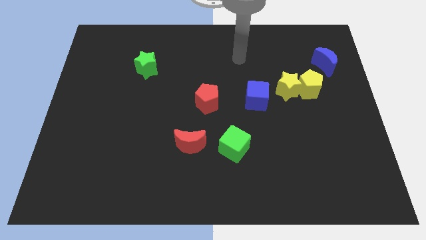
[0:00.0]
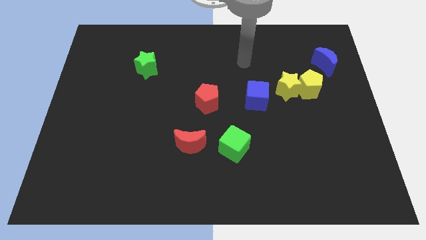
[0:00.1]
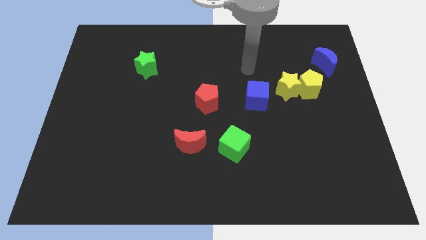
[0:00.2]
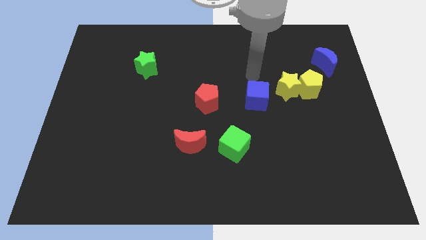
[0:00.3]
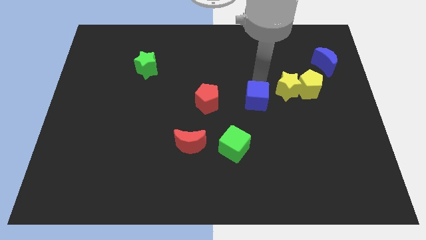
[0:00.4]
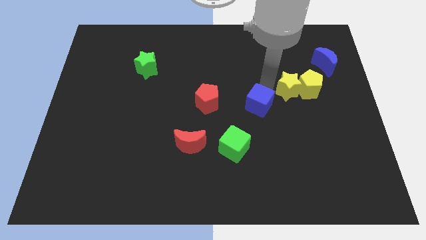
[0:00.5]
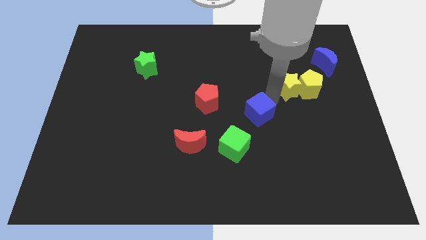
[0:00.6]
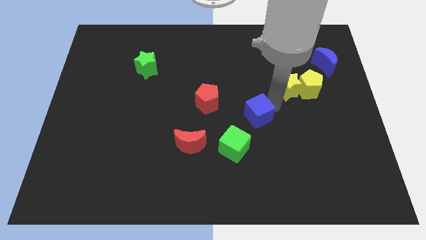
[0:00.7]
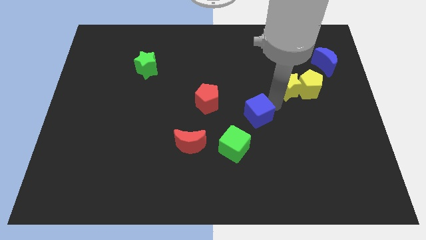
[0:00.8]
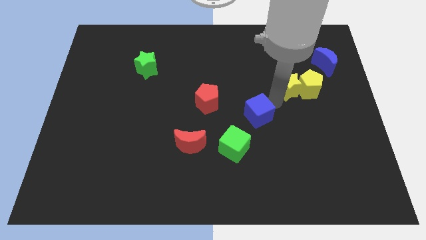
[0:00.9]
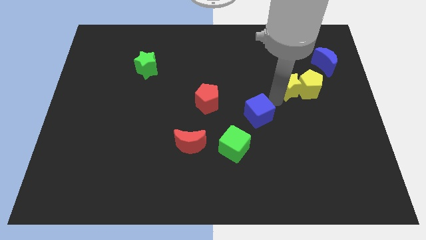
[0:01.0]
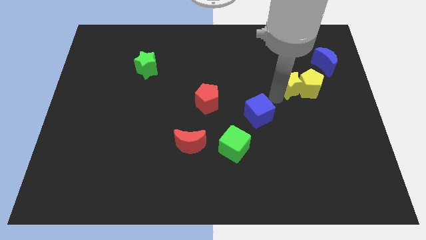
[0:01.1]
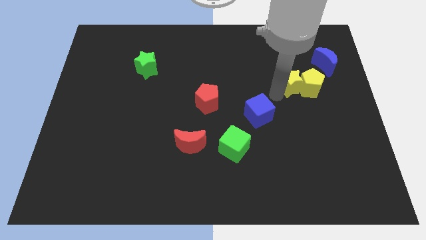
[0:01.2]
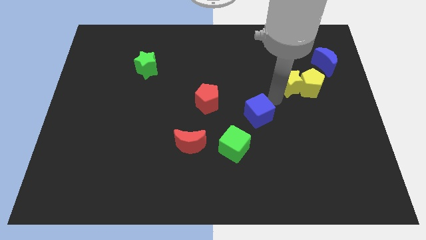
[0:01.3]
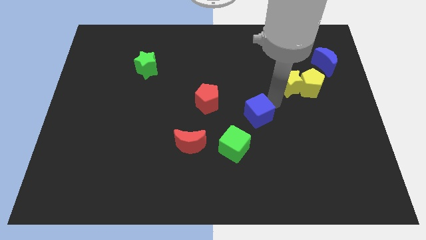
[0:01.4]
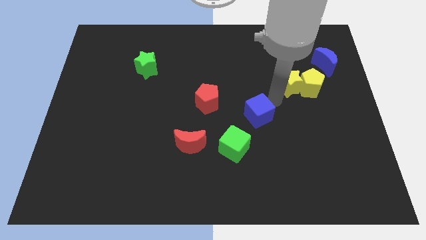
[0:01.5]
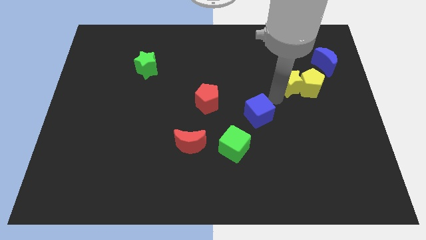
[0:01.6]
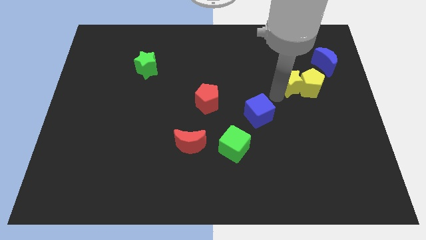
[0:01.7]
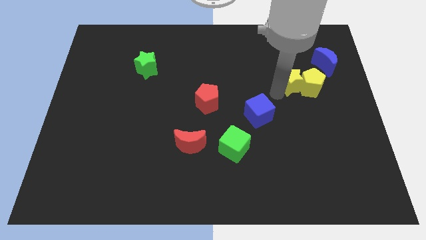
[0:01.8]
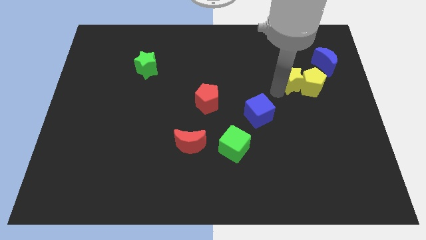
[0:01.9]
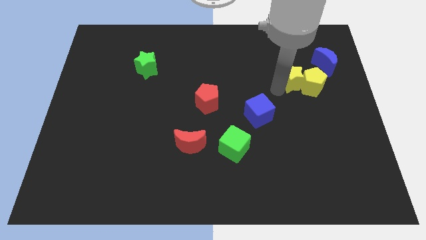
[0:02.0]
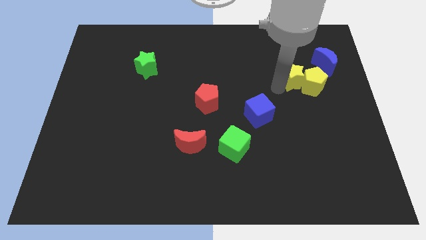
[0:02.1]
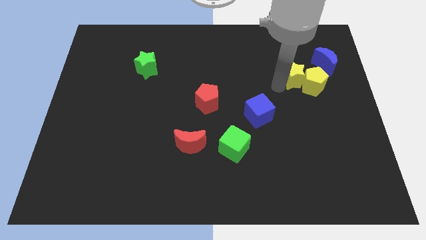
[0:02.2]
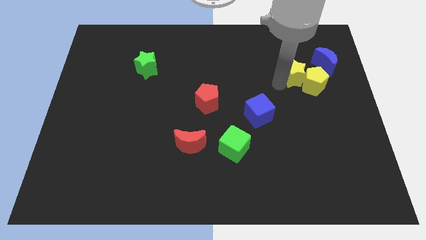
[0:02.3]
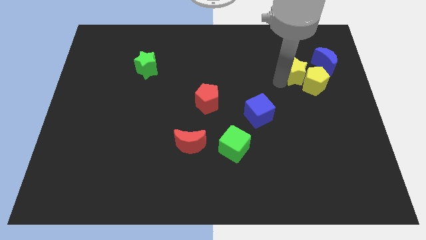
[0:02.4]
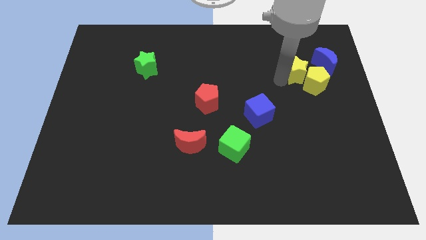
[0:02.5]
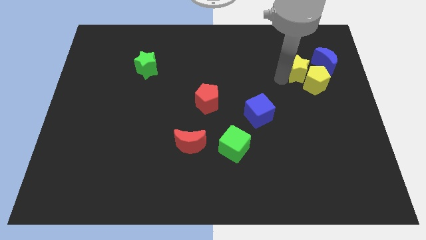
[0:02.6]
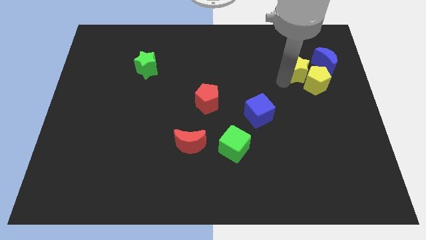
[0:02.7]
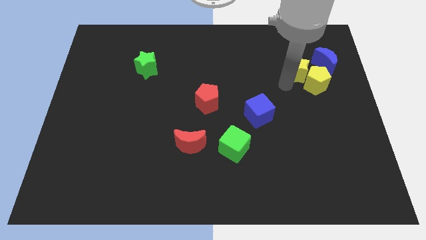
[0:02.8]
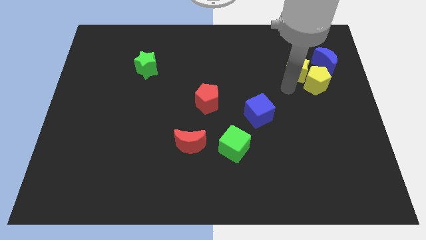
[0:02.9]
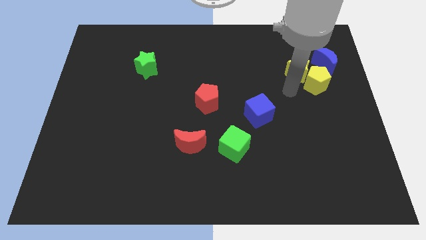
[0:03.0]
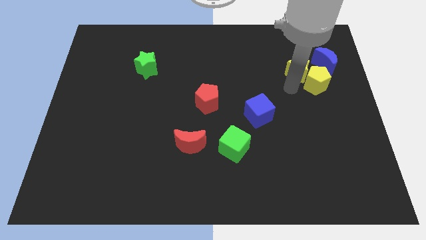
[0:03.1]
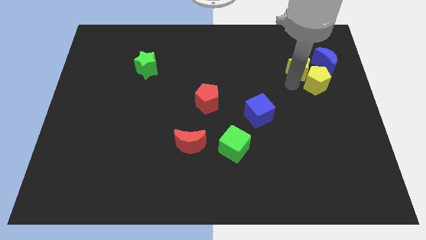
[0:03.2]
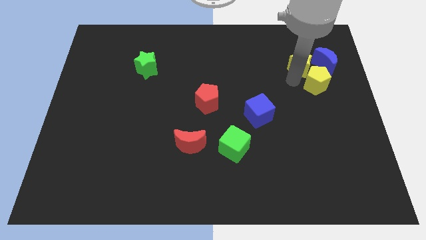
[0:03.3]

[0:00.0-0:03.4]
move the yellow star away from the yellow pentagon and blue cube

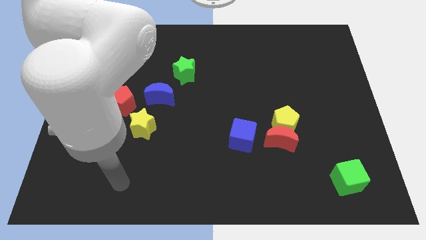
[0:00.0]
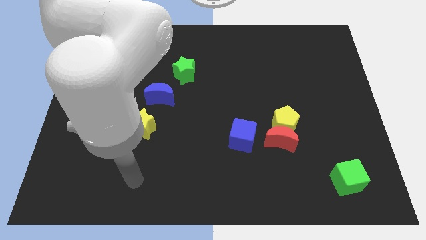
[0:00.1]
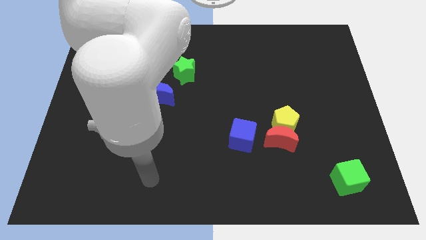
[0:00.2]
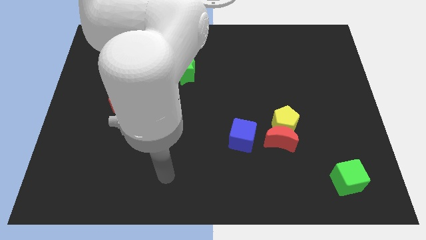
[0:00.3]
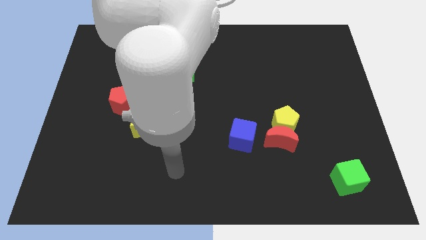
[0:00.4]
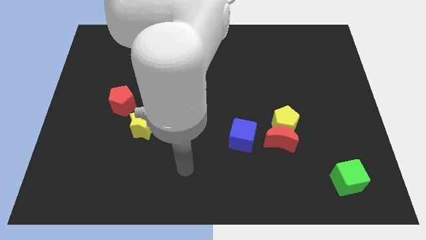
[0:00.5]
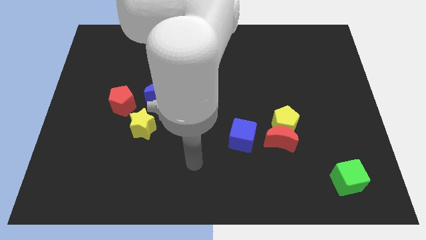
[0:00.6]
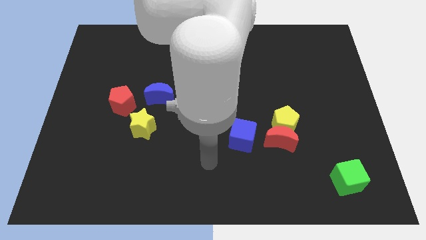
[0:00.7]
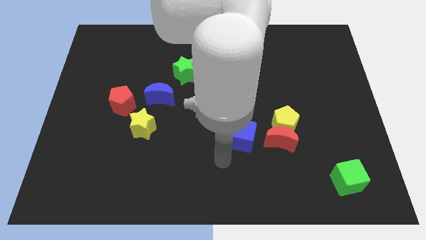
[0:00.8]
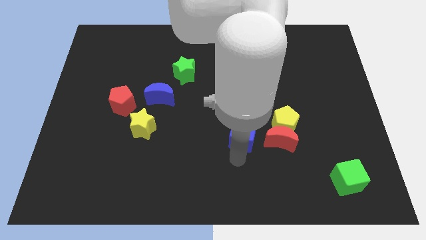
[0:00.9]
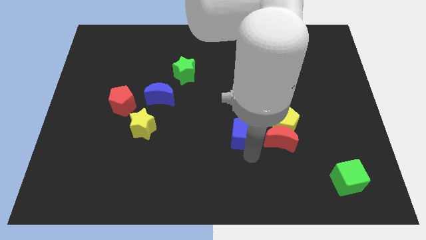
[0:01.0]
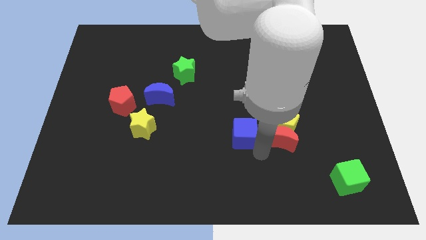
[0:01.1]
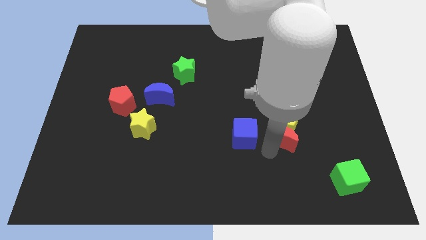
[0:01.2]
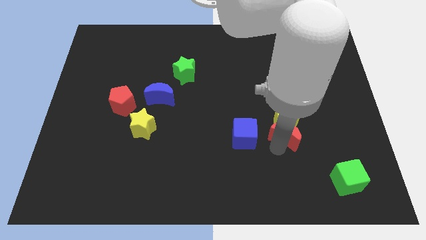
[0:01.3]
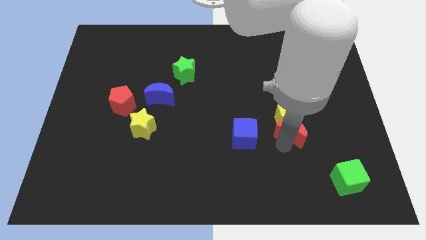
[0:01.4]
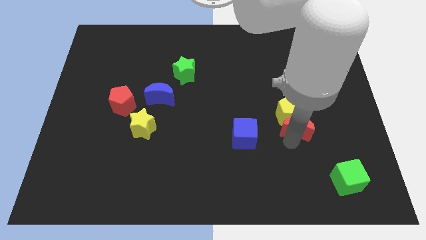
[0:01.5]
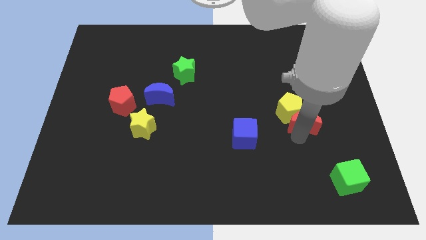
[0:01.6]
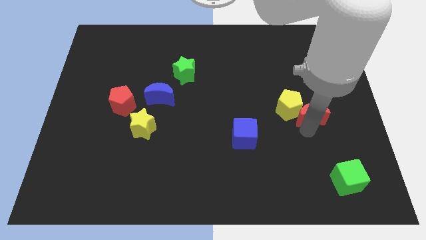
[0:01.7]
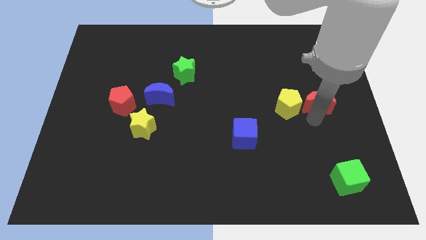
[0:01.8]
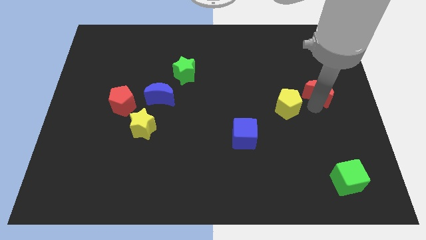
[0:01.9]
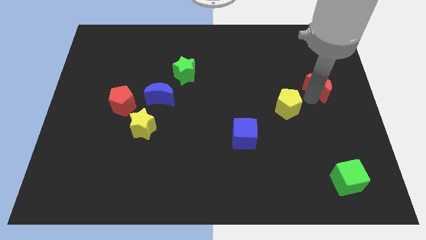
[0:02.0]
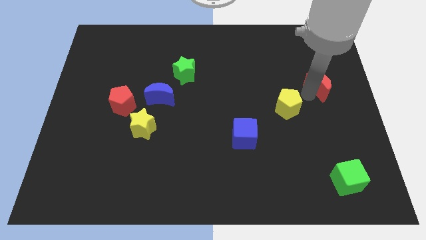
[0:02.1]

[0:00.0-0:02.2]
separate the yellow pentagon from the red moon

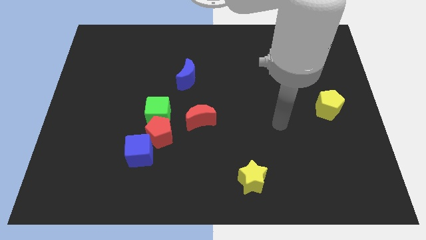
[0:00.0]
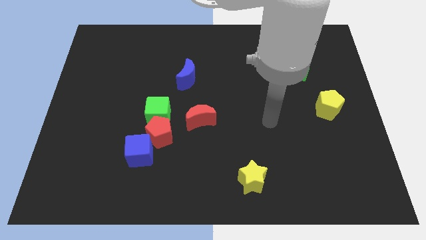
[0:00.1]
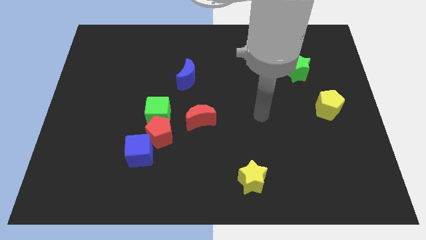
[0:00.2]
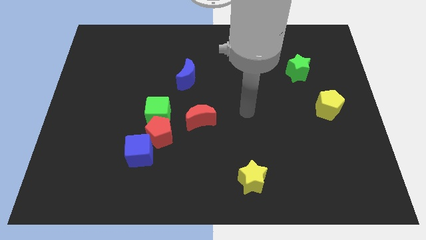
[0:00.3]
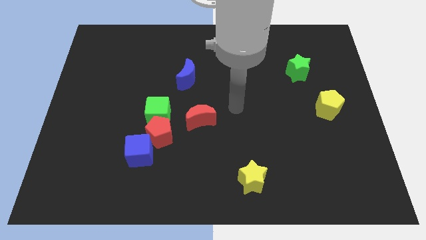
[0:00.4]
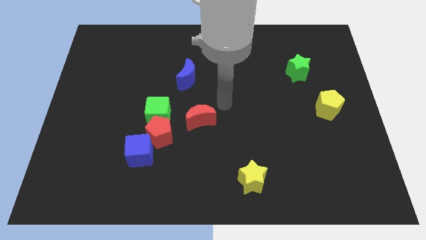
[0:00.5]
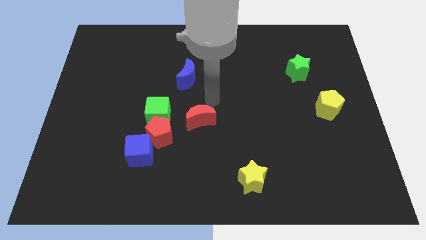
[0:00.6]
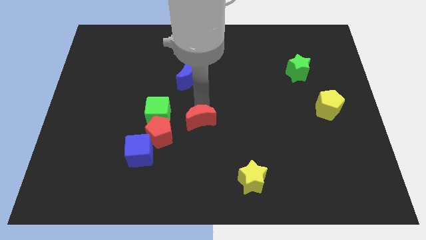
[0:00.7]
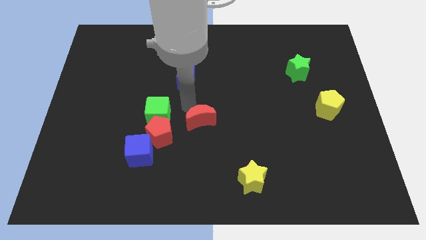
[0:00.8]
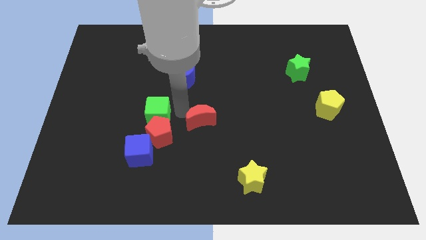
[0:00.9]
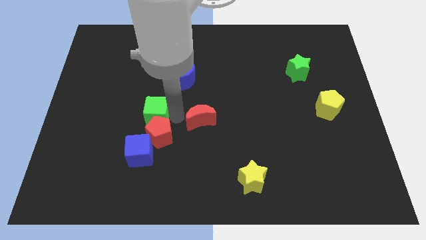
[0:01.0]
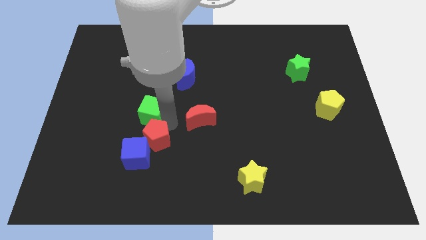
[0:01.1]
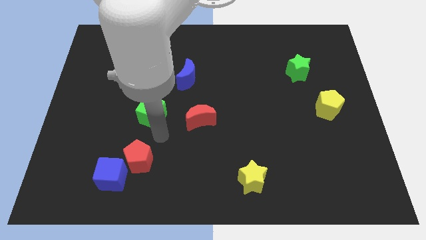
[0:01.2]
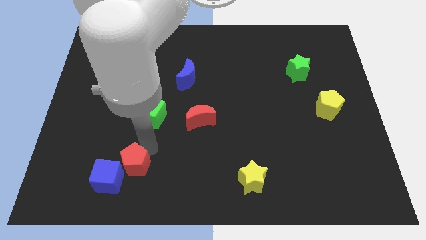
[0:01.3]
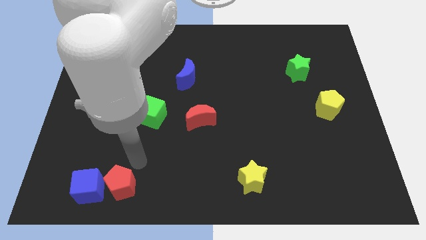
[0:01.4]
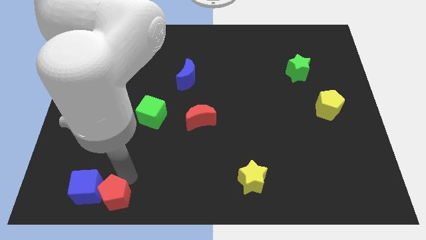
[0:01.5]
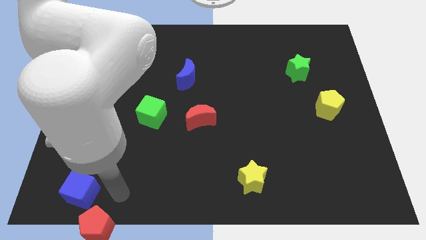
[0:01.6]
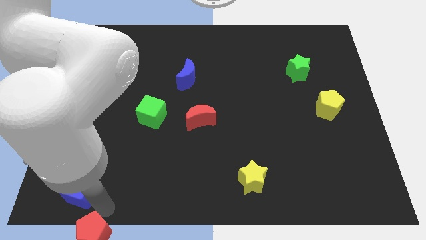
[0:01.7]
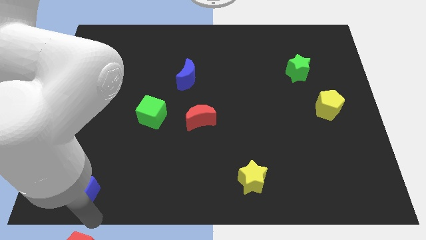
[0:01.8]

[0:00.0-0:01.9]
pull the blue cube apart from the red pentagon

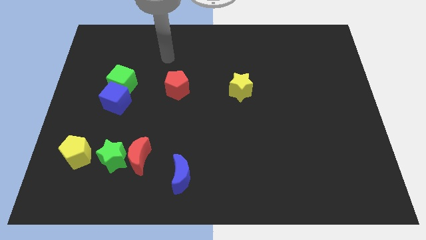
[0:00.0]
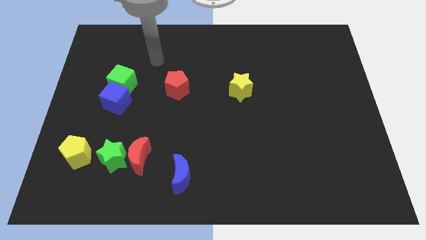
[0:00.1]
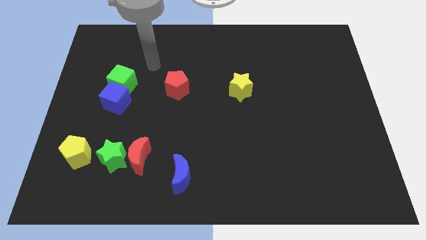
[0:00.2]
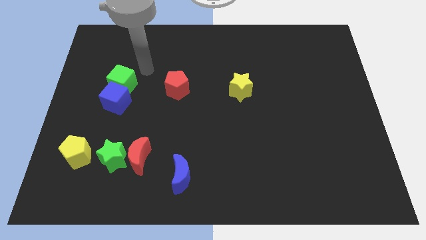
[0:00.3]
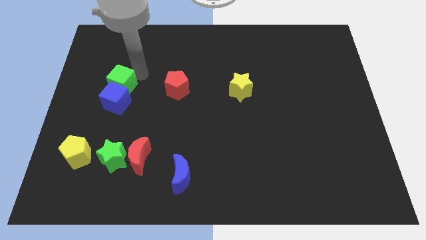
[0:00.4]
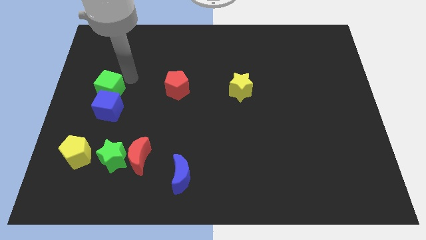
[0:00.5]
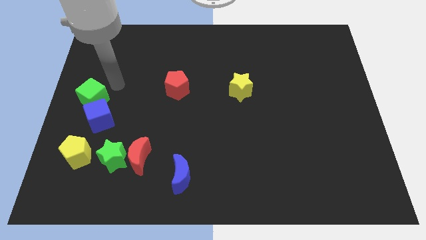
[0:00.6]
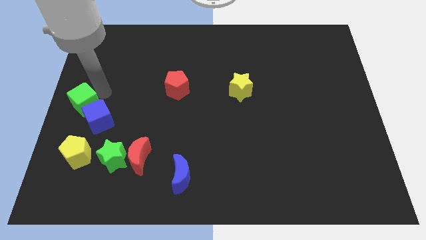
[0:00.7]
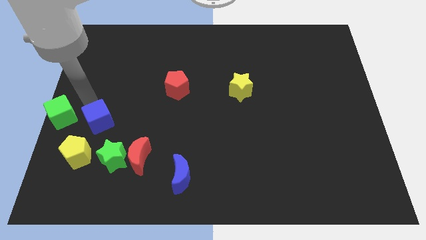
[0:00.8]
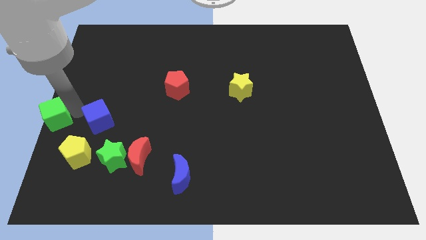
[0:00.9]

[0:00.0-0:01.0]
move the blue cube away from the green cube

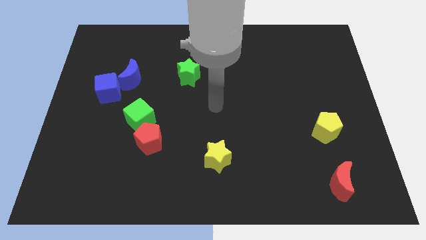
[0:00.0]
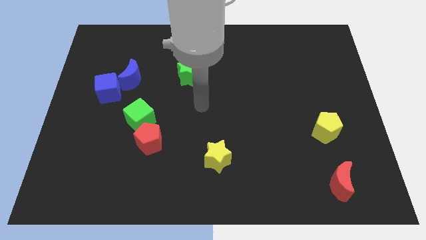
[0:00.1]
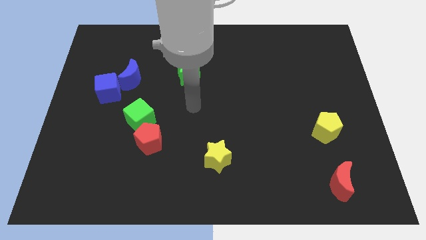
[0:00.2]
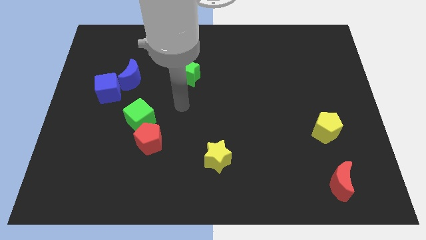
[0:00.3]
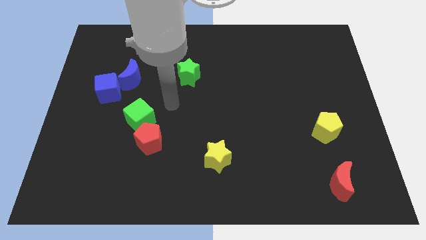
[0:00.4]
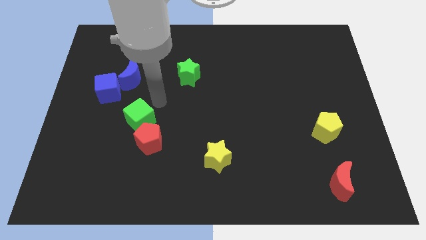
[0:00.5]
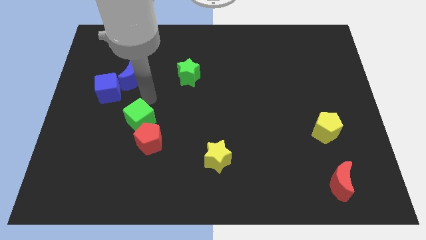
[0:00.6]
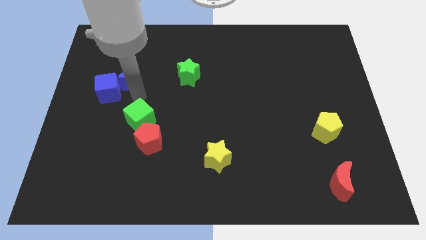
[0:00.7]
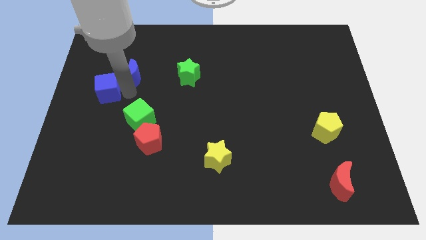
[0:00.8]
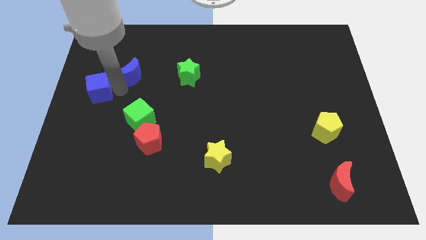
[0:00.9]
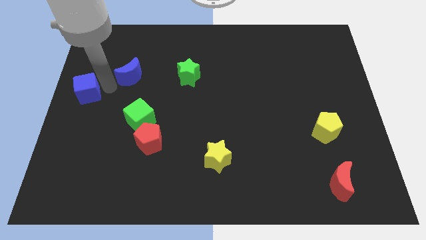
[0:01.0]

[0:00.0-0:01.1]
separate the blue moon from the blue cube
